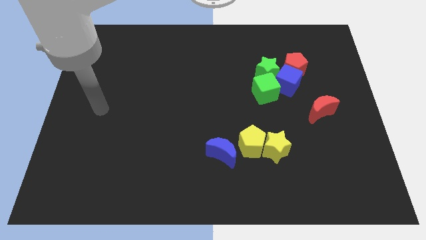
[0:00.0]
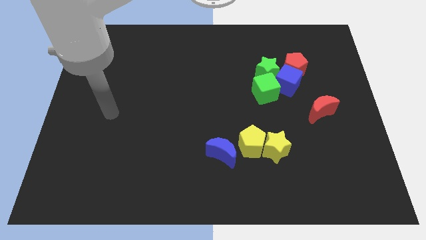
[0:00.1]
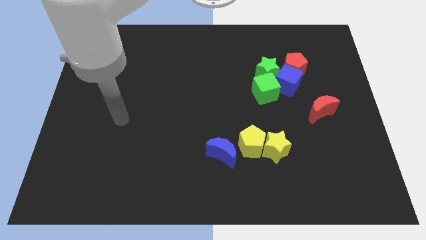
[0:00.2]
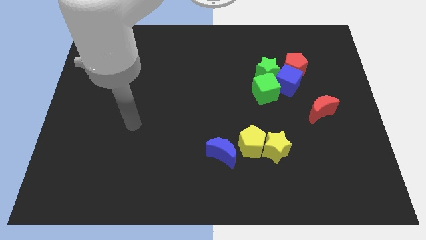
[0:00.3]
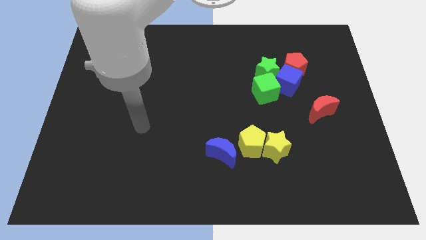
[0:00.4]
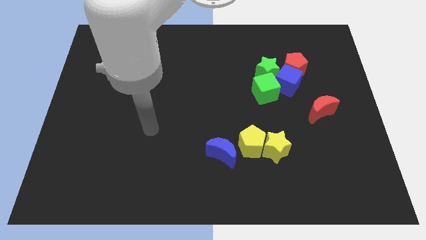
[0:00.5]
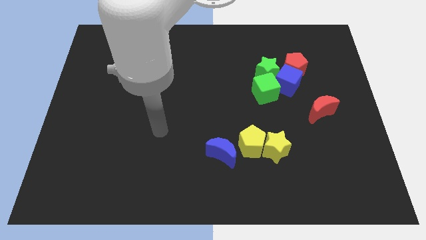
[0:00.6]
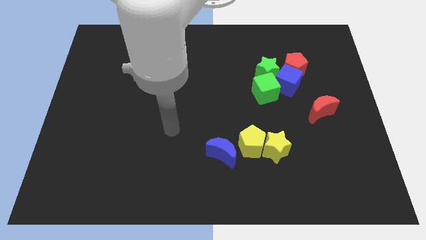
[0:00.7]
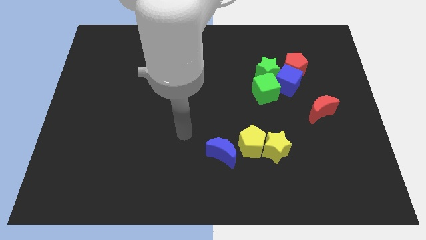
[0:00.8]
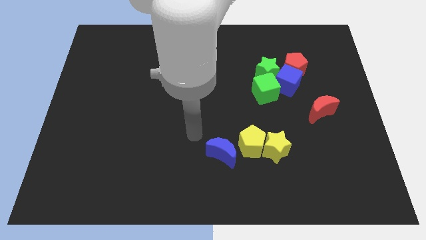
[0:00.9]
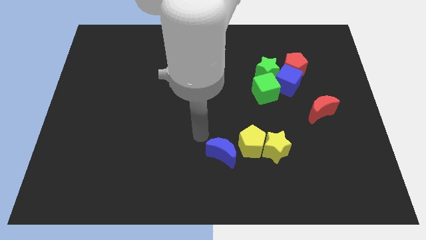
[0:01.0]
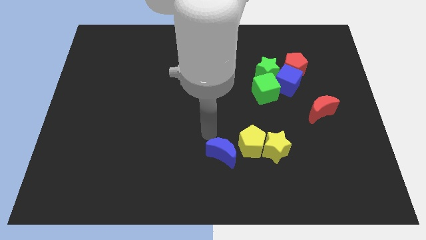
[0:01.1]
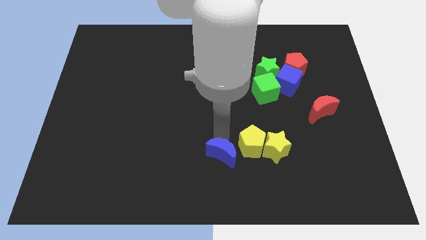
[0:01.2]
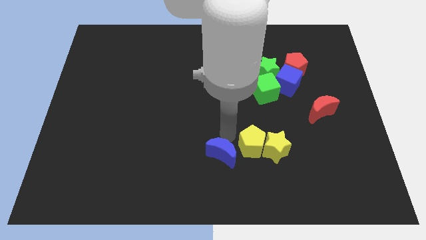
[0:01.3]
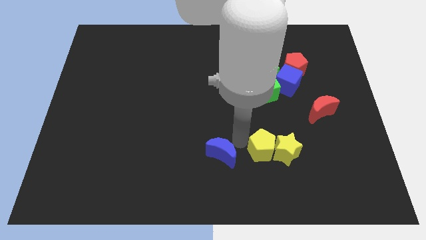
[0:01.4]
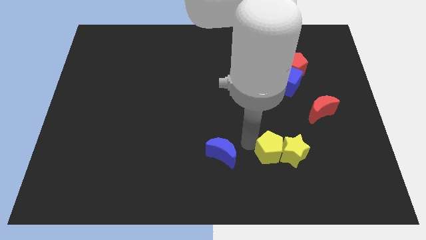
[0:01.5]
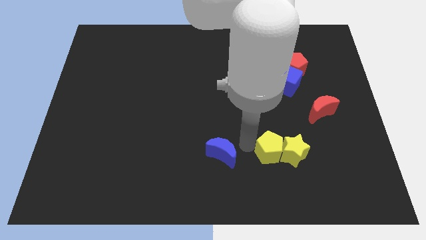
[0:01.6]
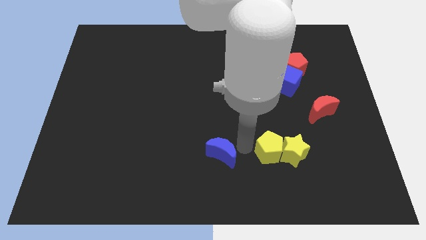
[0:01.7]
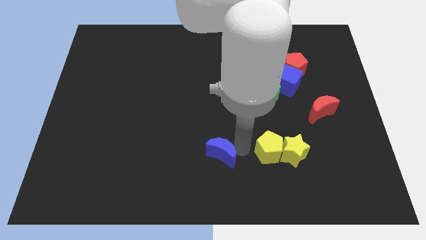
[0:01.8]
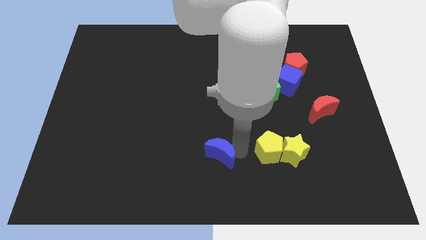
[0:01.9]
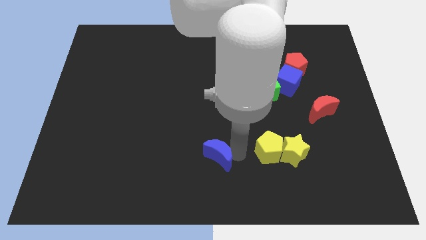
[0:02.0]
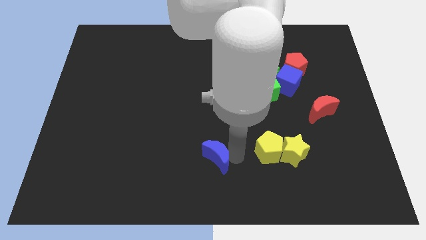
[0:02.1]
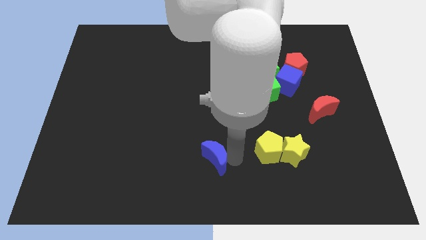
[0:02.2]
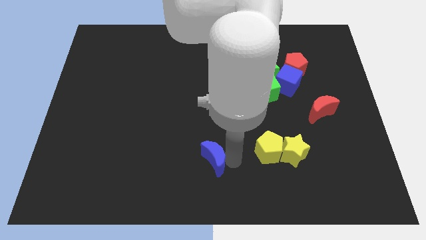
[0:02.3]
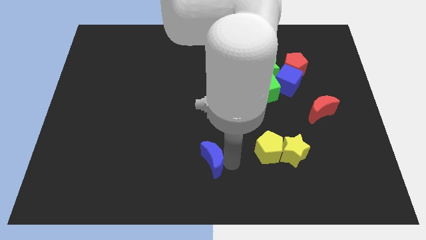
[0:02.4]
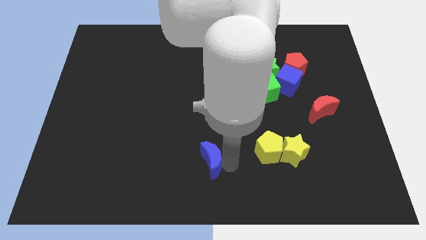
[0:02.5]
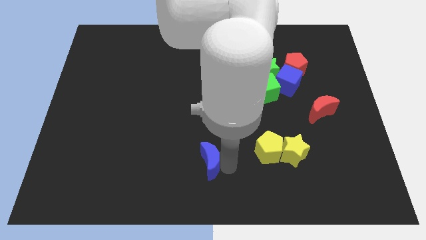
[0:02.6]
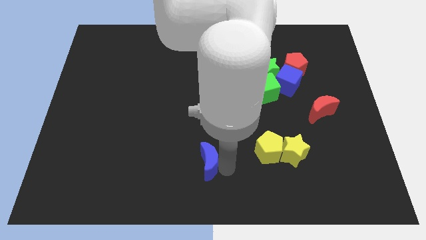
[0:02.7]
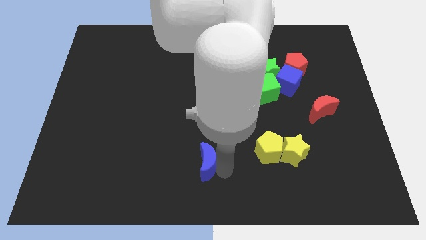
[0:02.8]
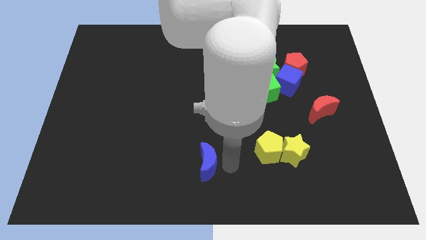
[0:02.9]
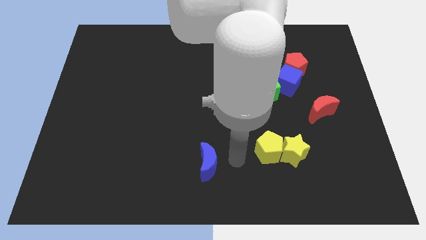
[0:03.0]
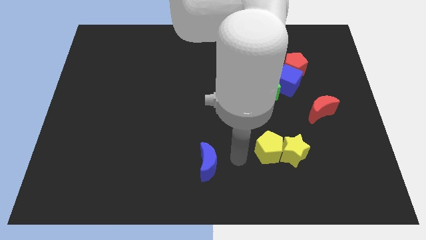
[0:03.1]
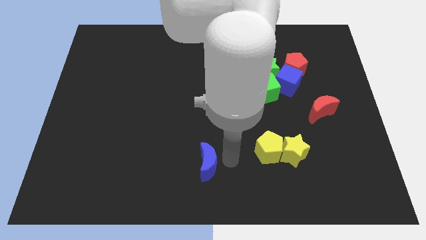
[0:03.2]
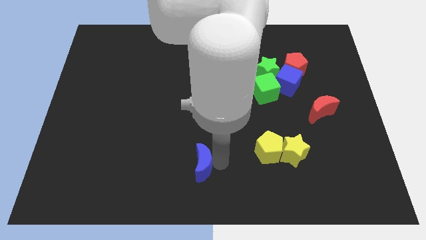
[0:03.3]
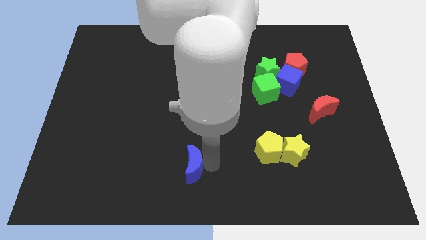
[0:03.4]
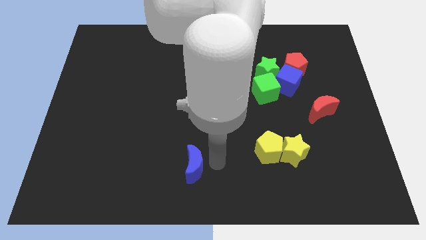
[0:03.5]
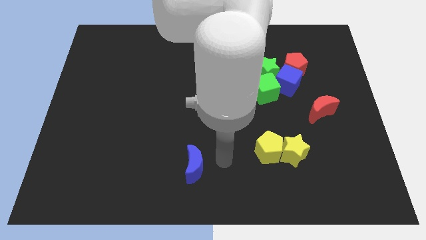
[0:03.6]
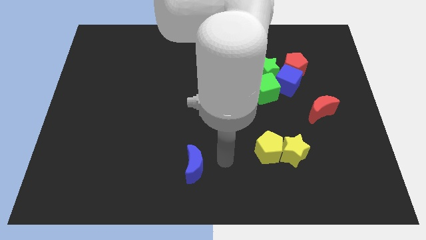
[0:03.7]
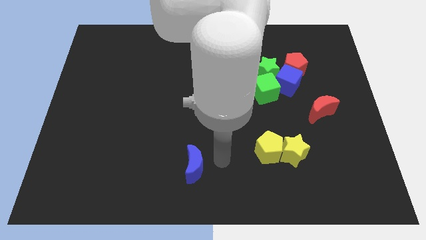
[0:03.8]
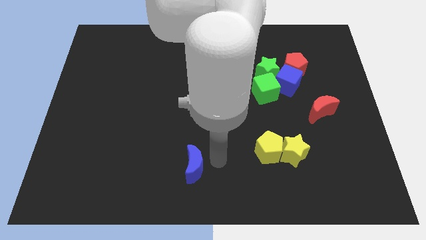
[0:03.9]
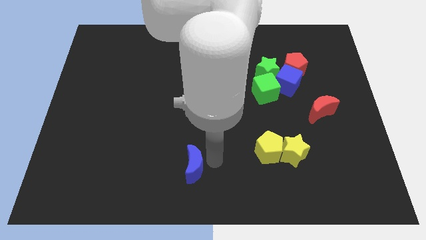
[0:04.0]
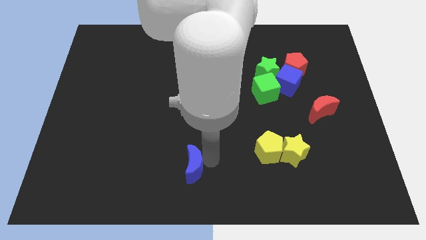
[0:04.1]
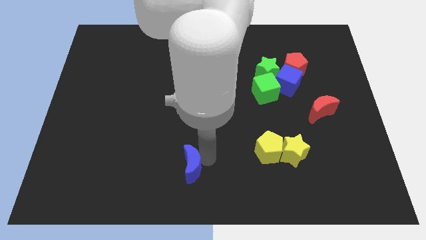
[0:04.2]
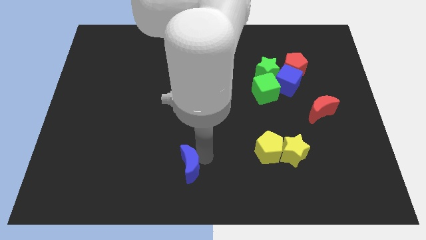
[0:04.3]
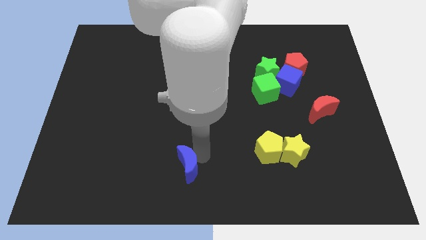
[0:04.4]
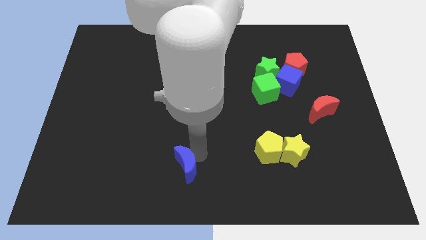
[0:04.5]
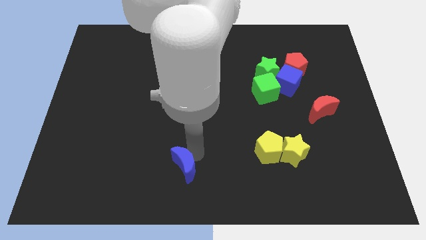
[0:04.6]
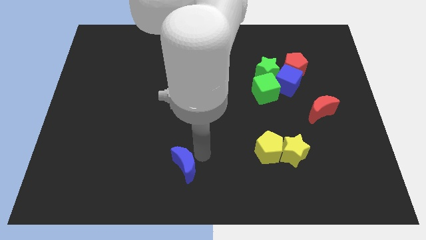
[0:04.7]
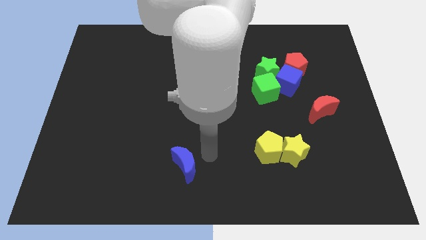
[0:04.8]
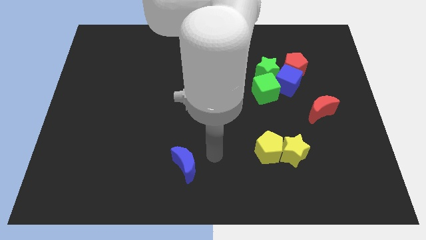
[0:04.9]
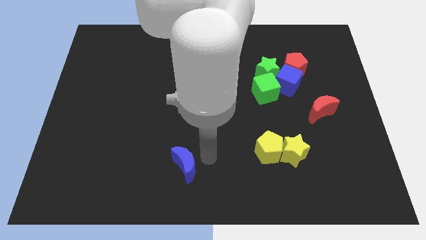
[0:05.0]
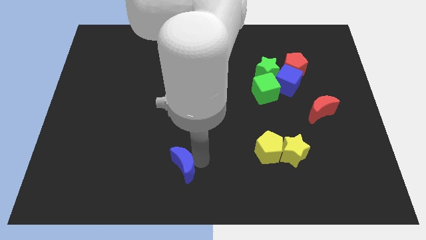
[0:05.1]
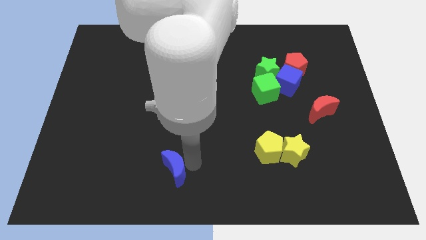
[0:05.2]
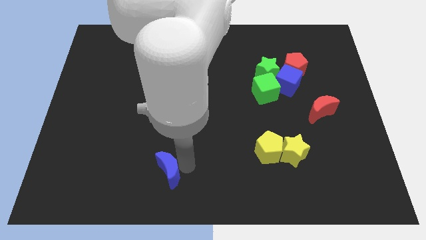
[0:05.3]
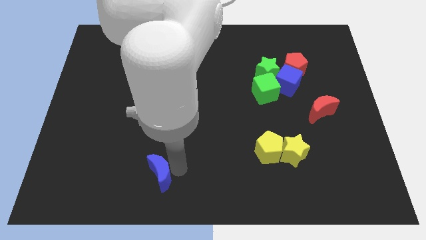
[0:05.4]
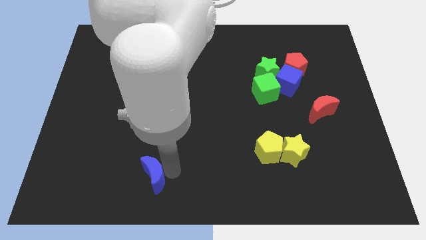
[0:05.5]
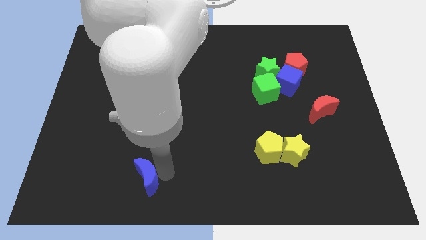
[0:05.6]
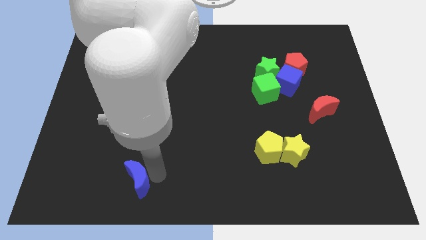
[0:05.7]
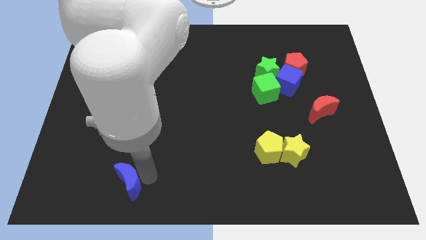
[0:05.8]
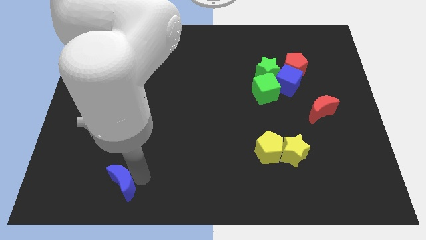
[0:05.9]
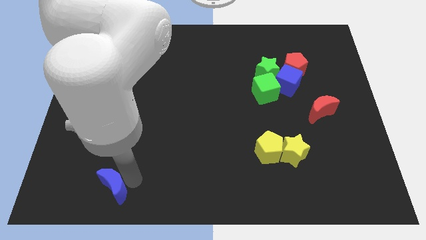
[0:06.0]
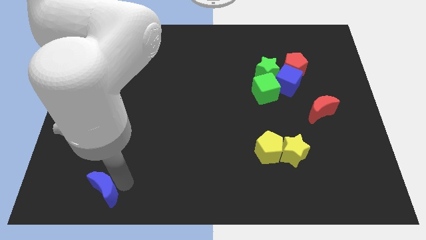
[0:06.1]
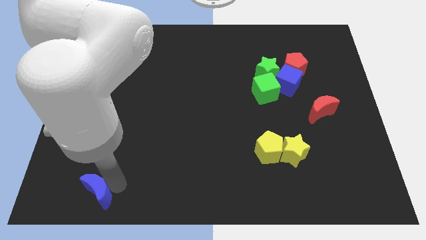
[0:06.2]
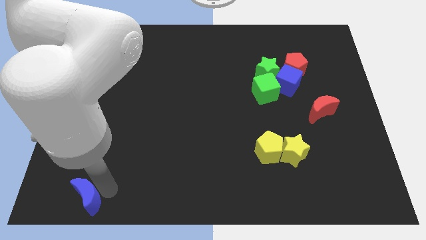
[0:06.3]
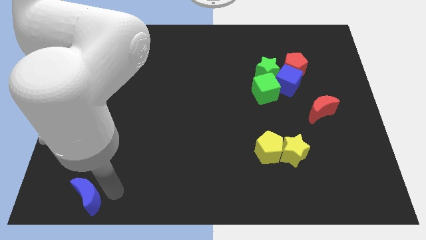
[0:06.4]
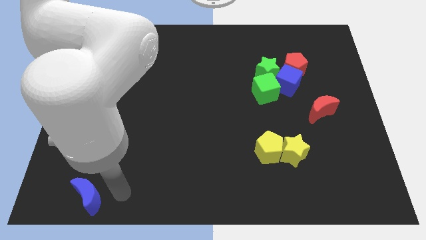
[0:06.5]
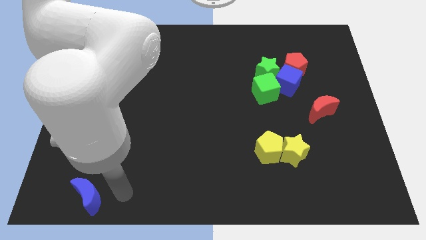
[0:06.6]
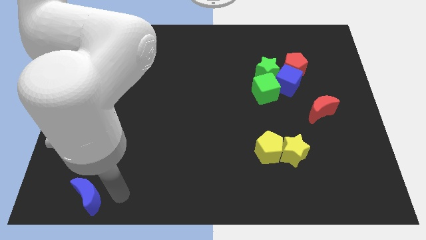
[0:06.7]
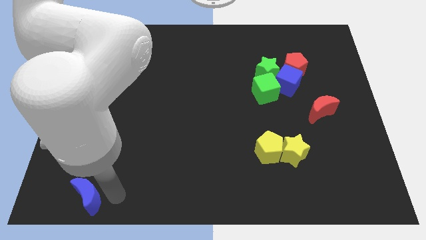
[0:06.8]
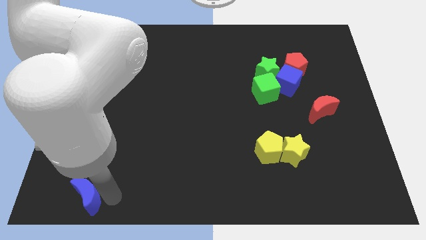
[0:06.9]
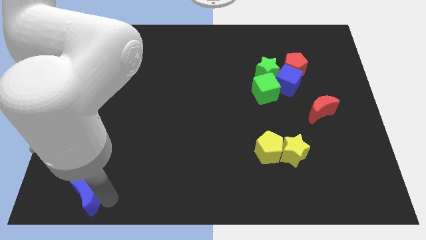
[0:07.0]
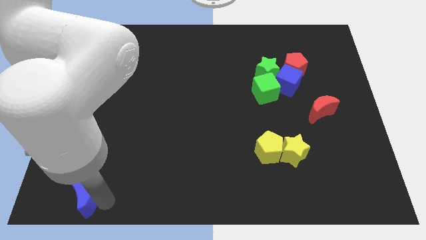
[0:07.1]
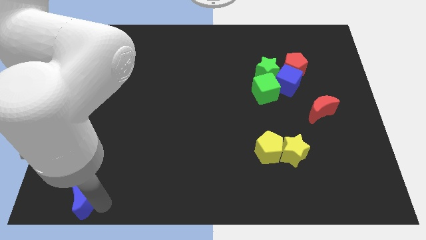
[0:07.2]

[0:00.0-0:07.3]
move the blue moon to the lower left corner

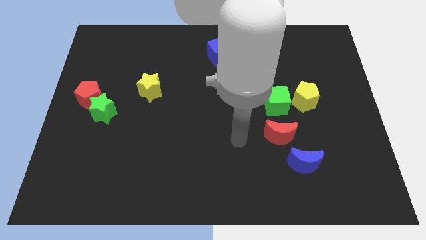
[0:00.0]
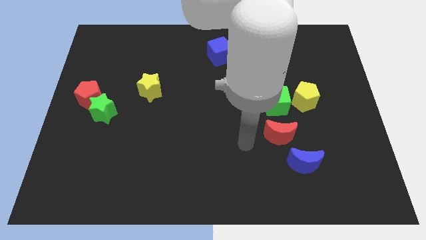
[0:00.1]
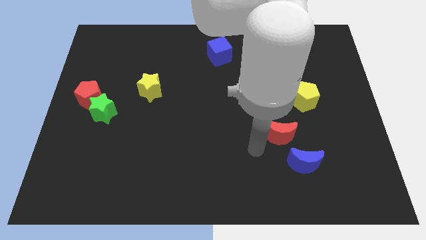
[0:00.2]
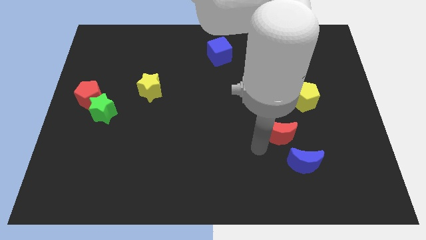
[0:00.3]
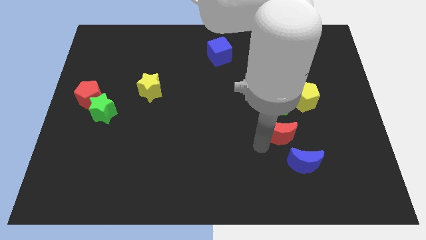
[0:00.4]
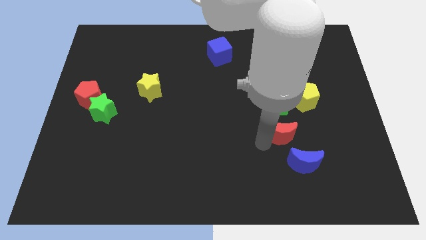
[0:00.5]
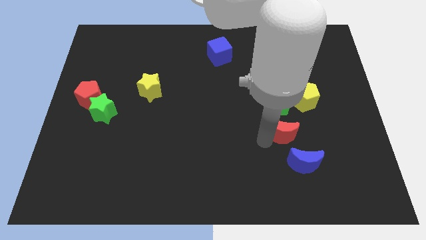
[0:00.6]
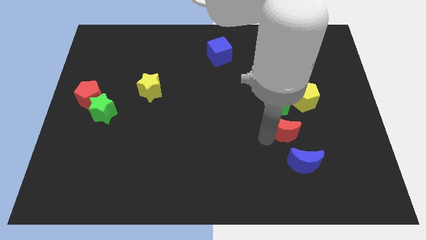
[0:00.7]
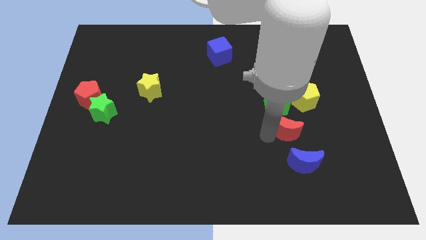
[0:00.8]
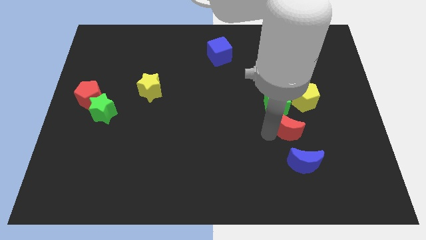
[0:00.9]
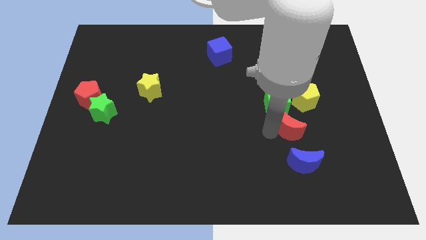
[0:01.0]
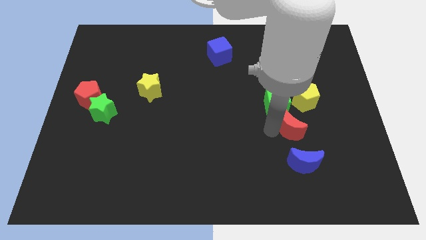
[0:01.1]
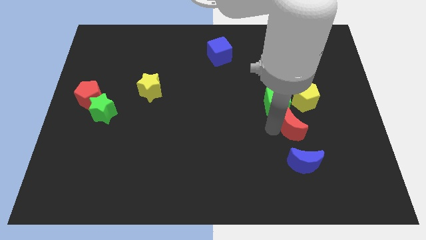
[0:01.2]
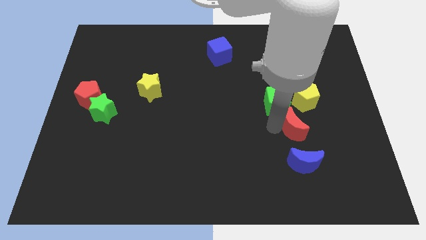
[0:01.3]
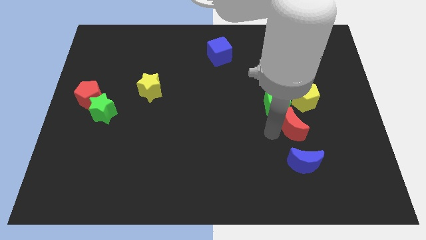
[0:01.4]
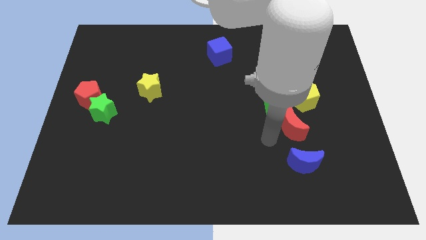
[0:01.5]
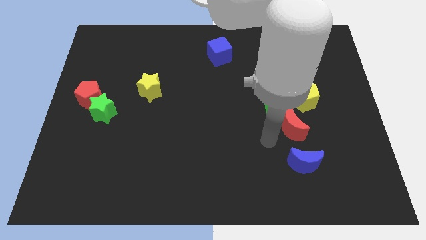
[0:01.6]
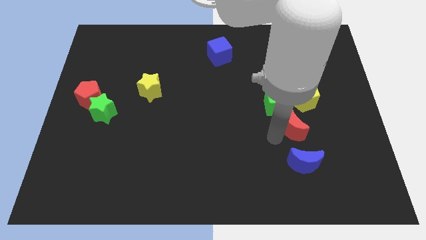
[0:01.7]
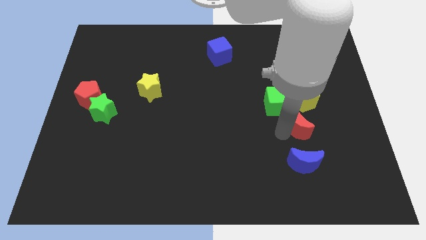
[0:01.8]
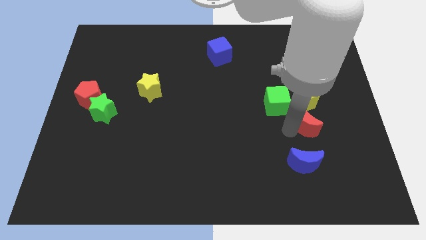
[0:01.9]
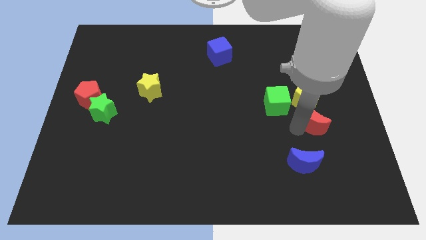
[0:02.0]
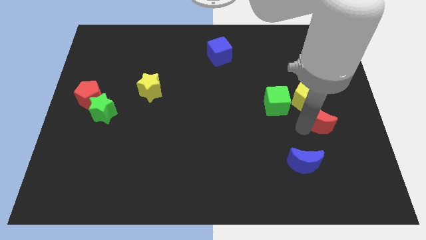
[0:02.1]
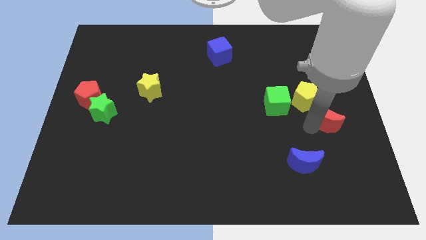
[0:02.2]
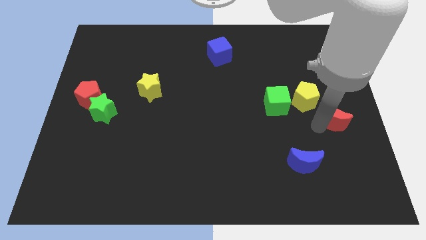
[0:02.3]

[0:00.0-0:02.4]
move the red moon to the center right
